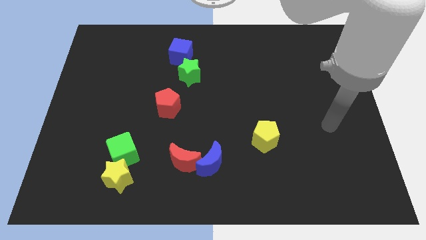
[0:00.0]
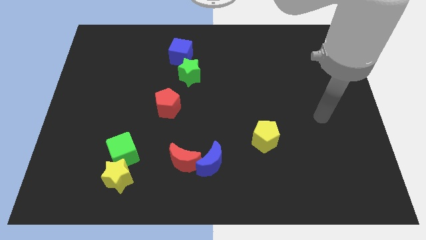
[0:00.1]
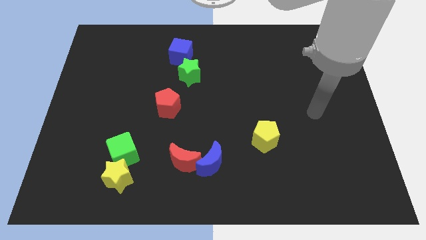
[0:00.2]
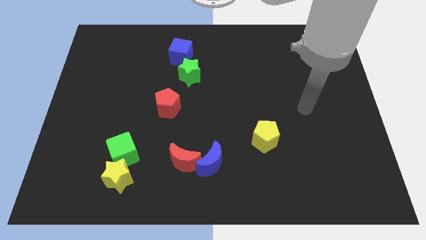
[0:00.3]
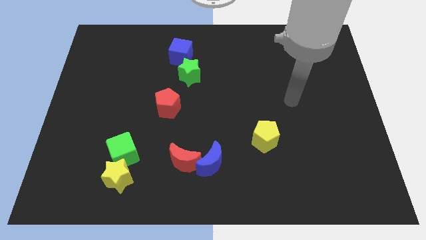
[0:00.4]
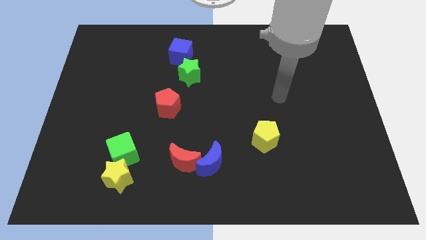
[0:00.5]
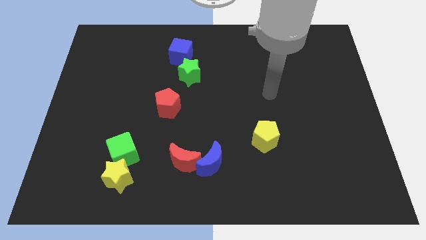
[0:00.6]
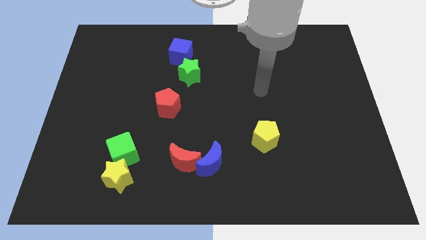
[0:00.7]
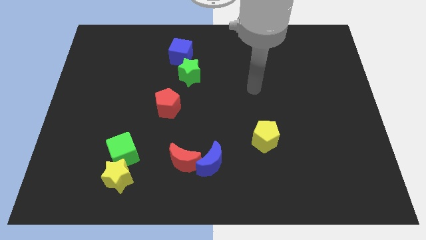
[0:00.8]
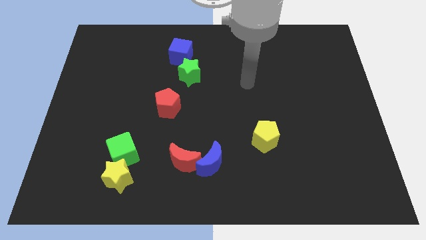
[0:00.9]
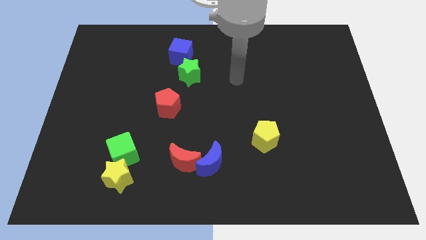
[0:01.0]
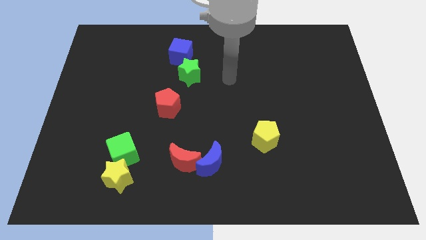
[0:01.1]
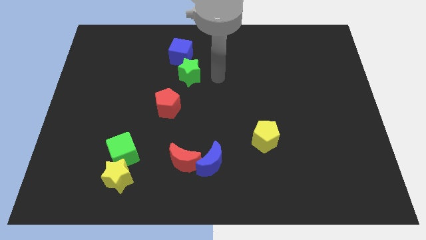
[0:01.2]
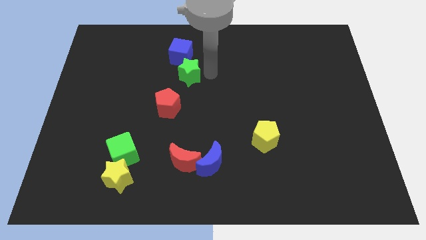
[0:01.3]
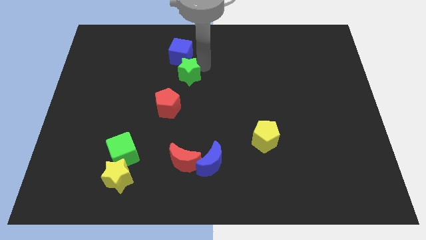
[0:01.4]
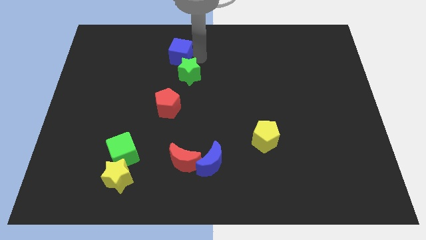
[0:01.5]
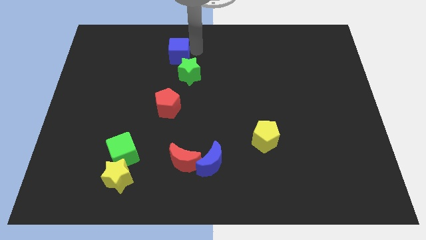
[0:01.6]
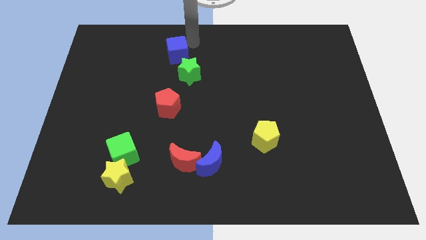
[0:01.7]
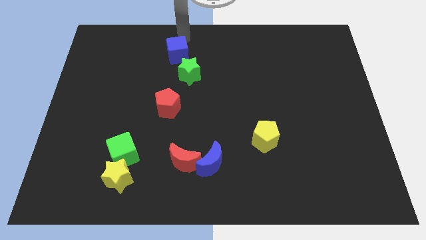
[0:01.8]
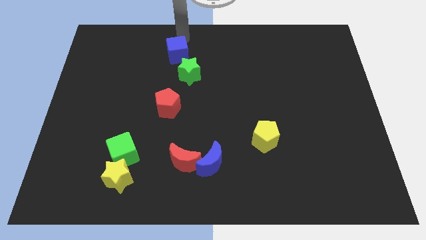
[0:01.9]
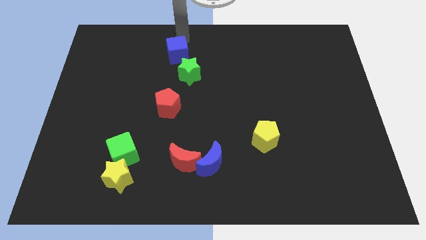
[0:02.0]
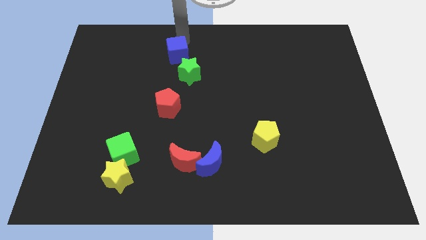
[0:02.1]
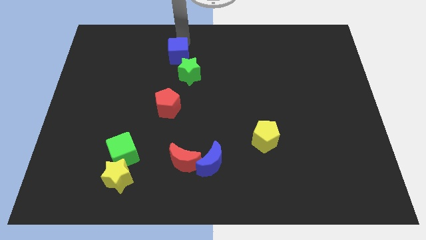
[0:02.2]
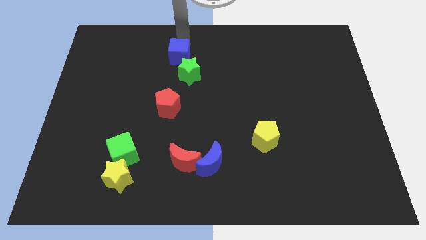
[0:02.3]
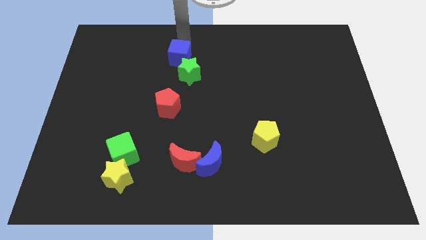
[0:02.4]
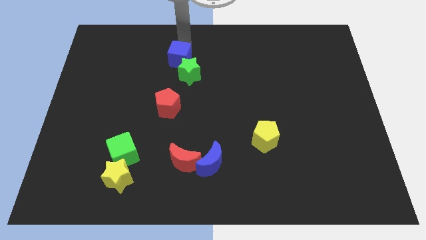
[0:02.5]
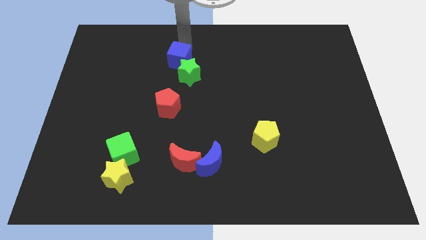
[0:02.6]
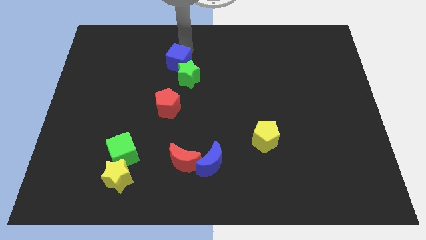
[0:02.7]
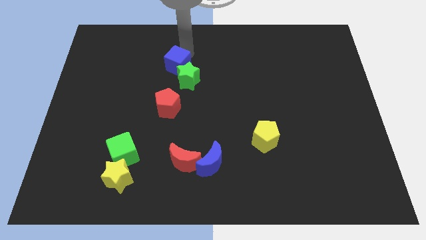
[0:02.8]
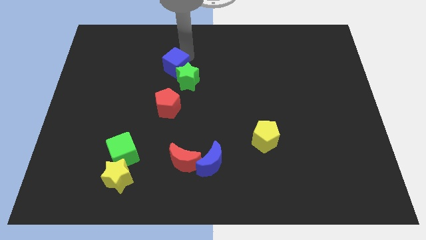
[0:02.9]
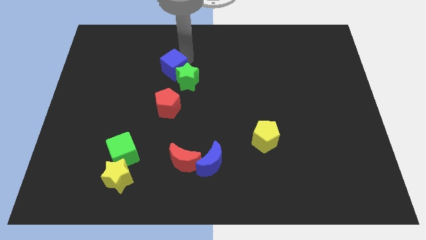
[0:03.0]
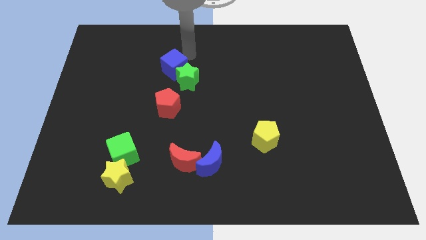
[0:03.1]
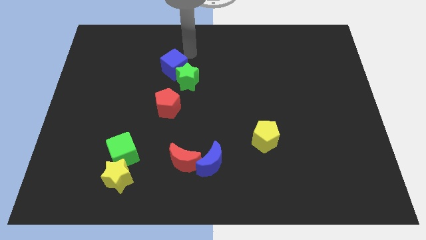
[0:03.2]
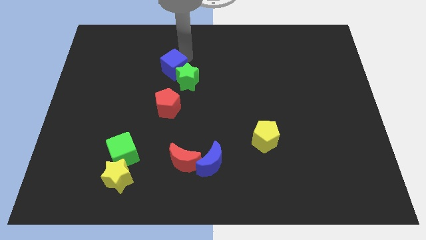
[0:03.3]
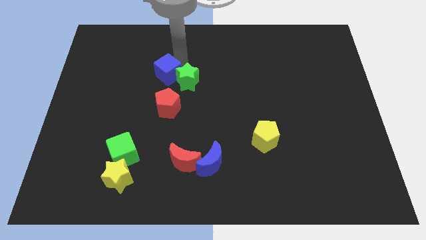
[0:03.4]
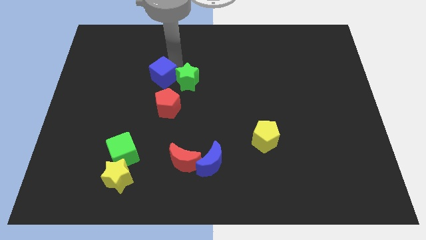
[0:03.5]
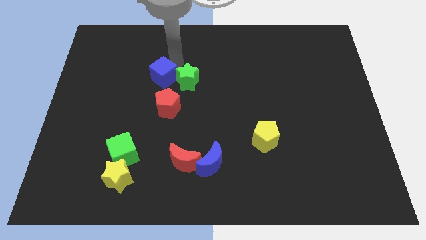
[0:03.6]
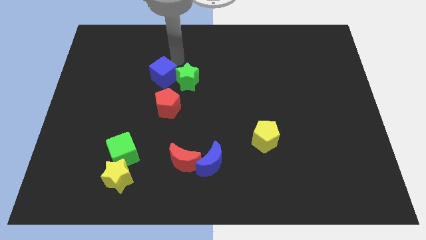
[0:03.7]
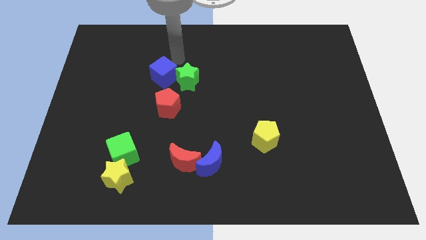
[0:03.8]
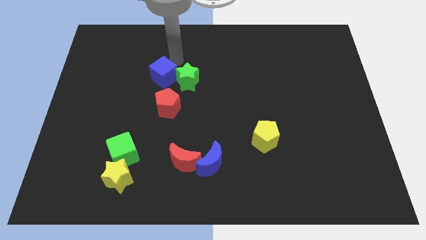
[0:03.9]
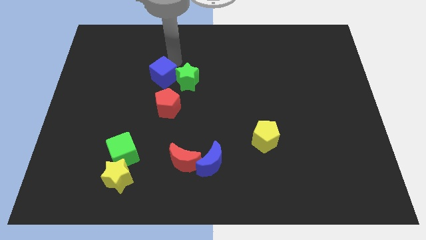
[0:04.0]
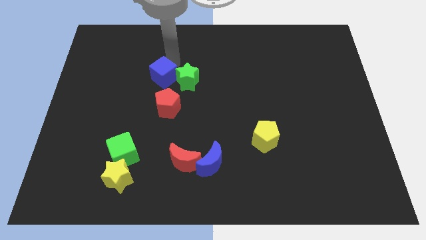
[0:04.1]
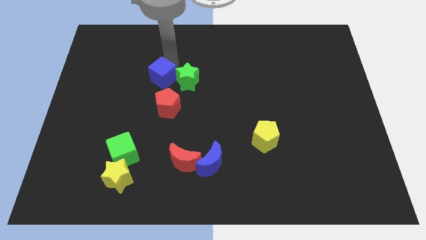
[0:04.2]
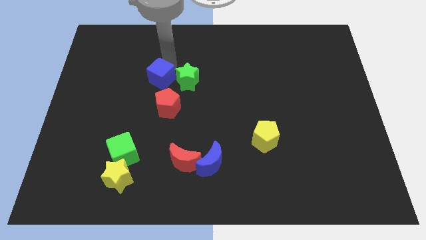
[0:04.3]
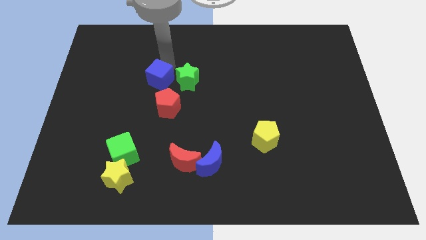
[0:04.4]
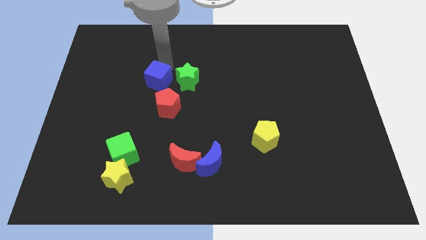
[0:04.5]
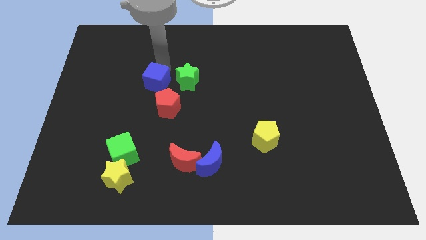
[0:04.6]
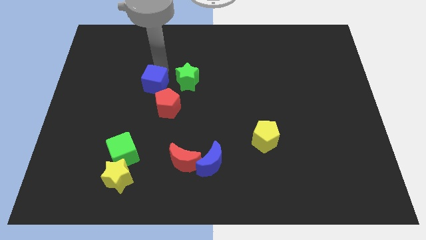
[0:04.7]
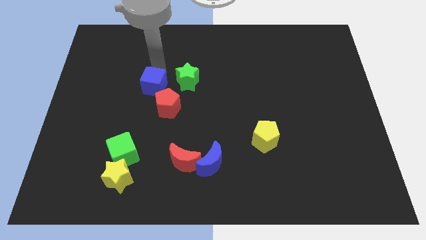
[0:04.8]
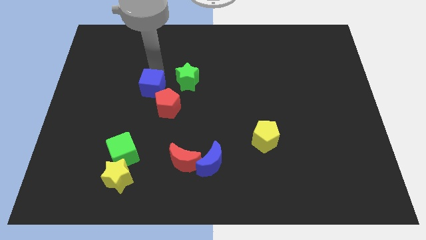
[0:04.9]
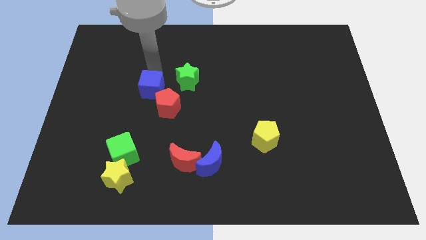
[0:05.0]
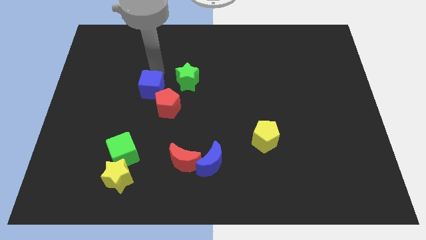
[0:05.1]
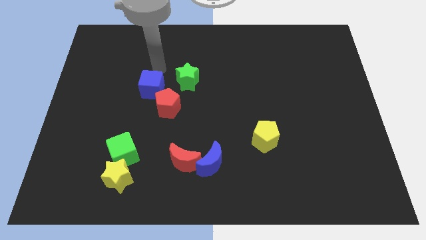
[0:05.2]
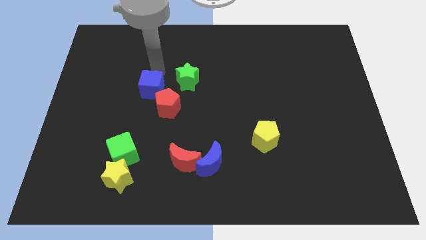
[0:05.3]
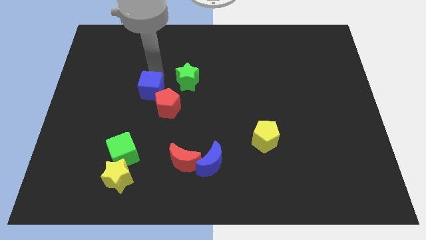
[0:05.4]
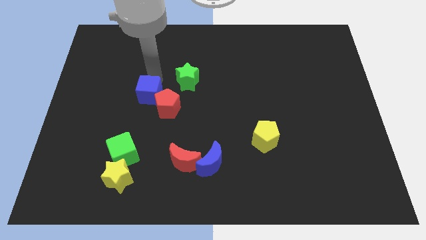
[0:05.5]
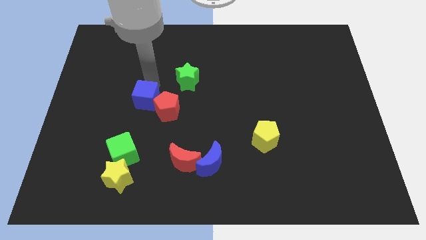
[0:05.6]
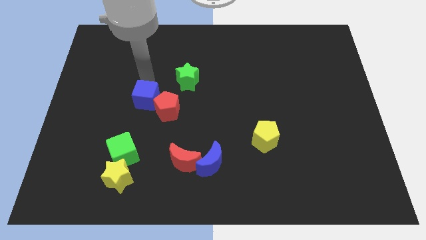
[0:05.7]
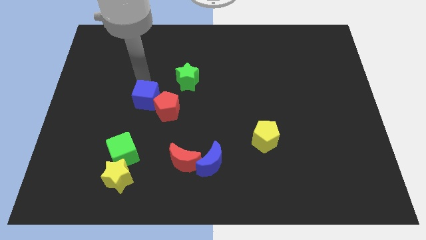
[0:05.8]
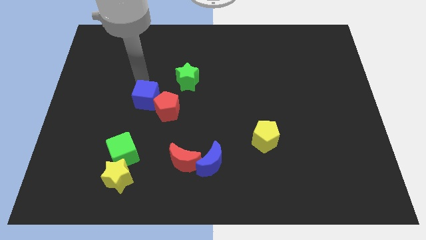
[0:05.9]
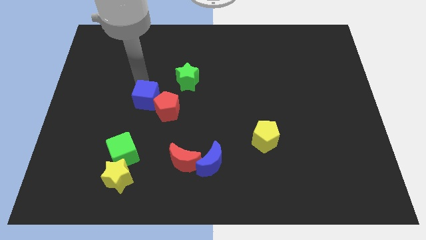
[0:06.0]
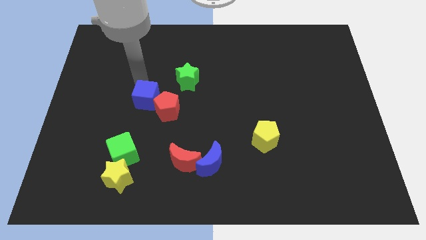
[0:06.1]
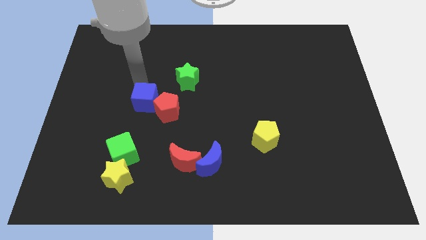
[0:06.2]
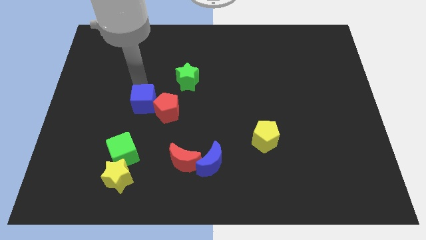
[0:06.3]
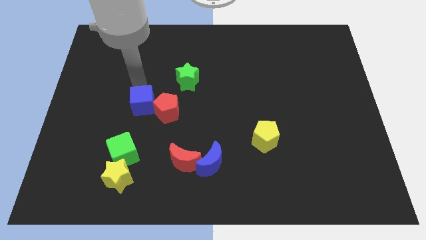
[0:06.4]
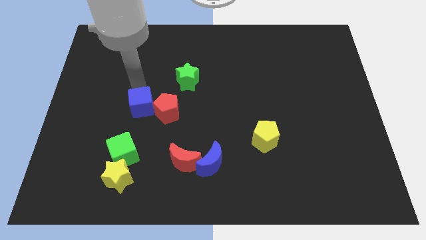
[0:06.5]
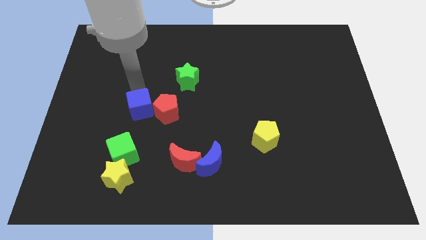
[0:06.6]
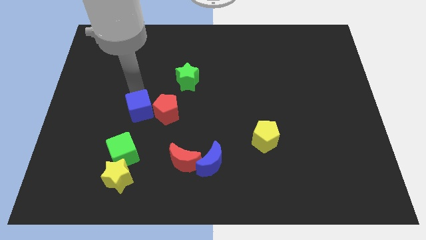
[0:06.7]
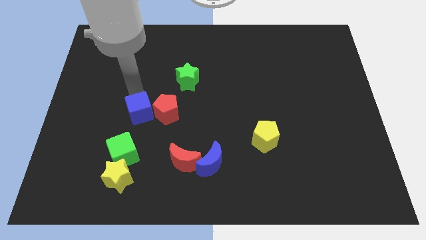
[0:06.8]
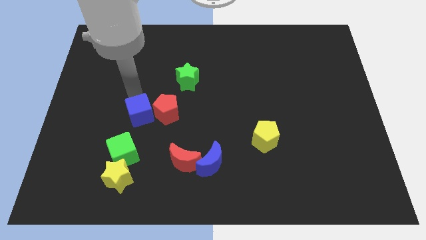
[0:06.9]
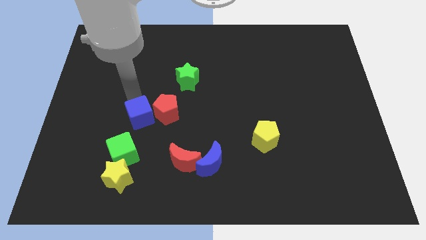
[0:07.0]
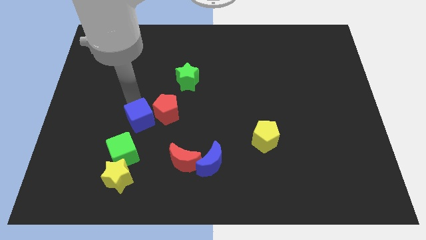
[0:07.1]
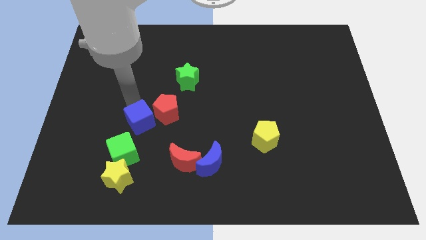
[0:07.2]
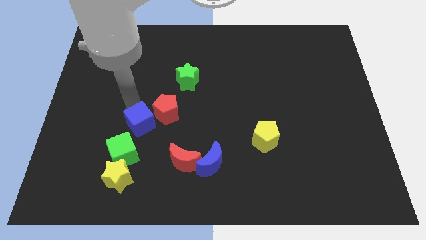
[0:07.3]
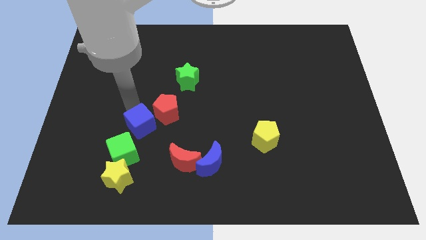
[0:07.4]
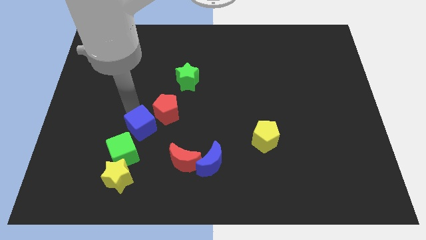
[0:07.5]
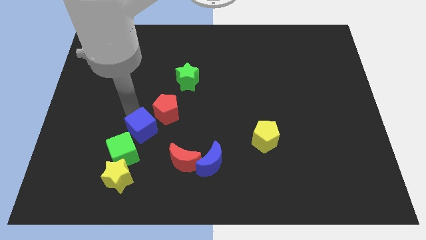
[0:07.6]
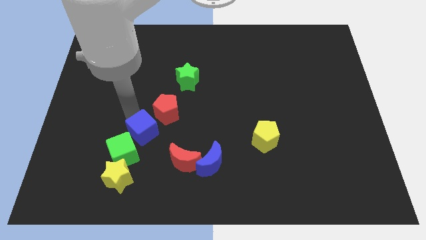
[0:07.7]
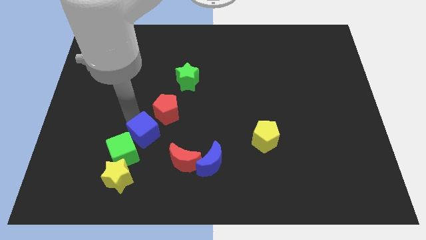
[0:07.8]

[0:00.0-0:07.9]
push the blue cube towards the green cube

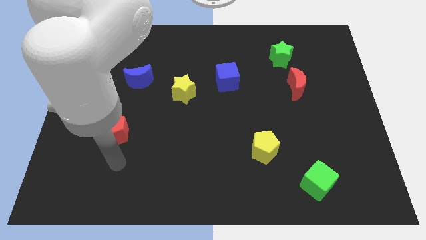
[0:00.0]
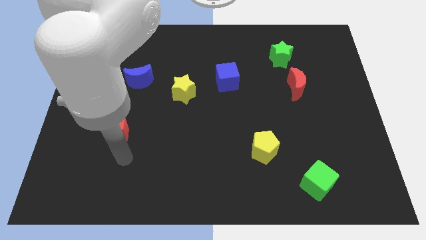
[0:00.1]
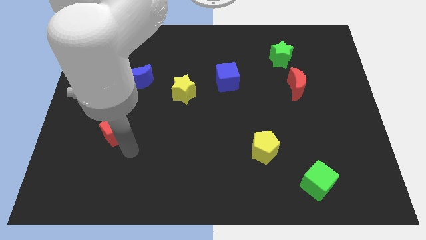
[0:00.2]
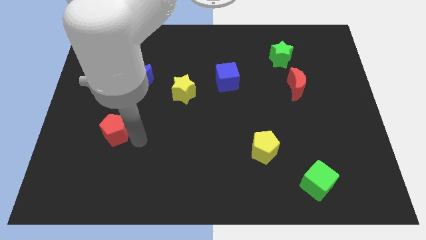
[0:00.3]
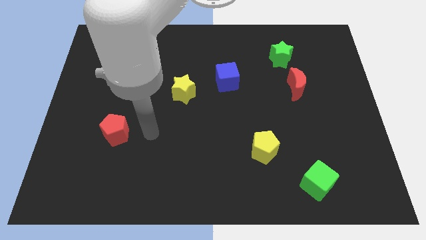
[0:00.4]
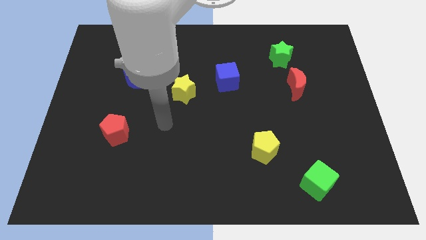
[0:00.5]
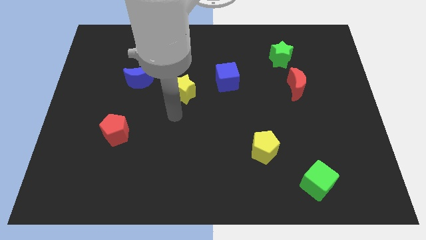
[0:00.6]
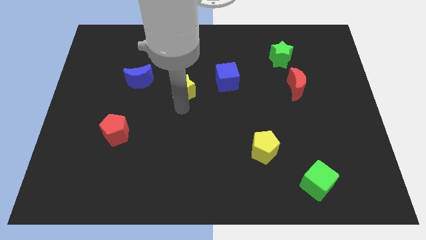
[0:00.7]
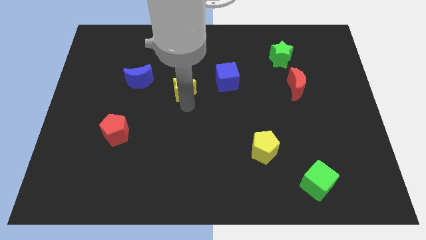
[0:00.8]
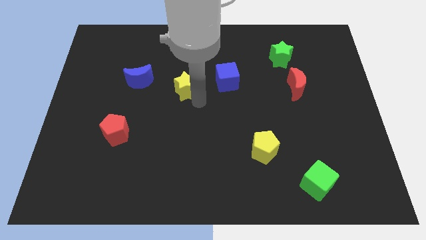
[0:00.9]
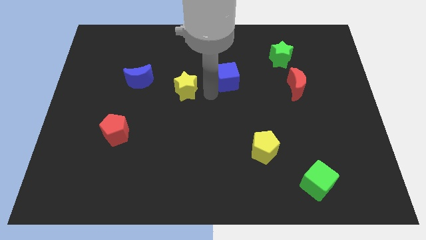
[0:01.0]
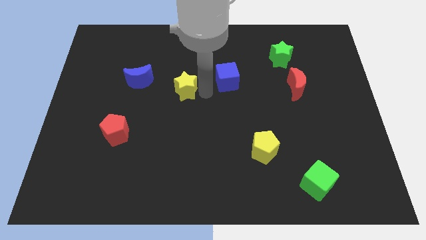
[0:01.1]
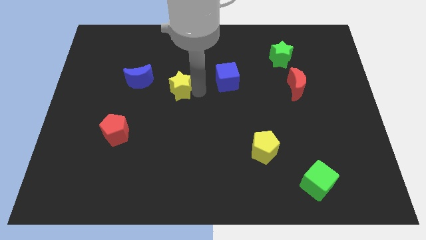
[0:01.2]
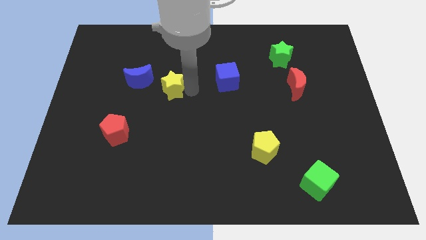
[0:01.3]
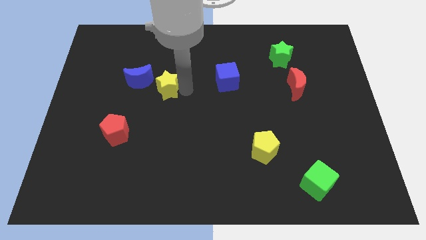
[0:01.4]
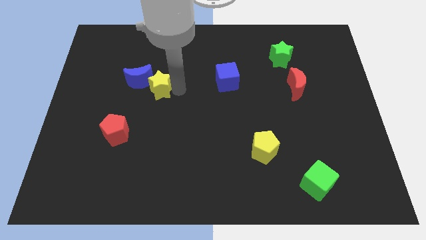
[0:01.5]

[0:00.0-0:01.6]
move the yellow star next to the blue moon
